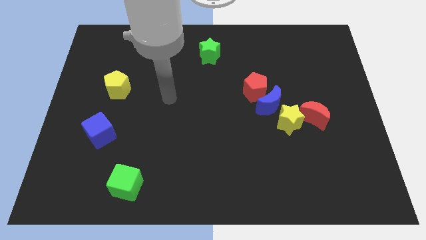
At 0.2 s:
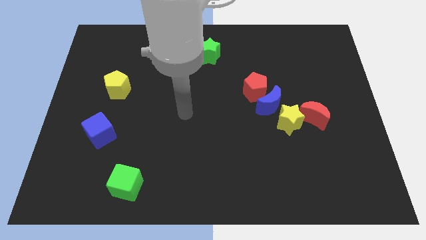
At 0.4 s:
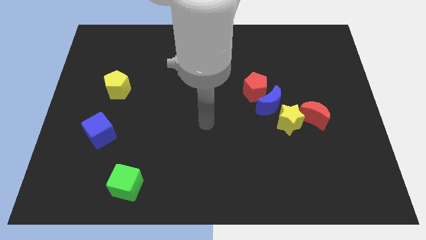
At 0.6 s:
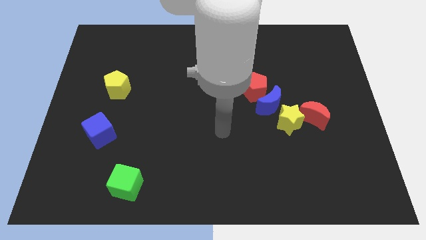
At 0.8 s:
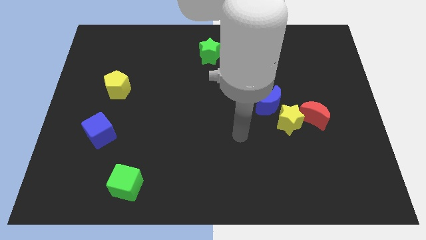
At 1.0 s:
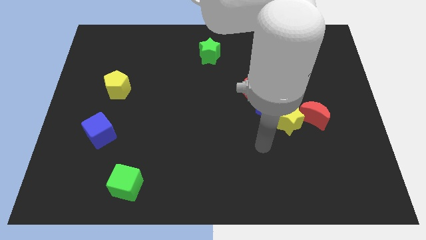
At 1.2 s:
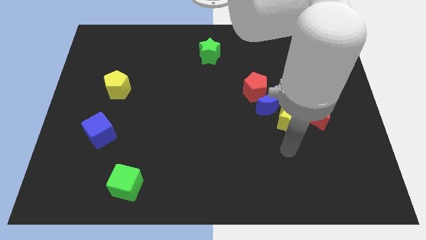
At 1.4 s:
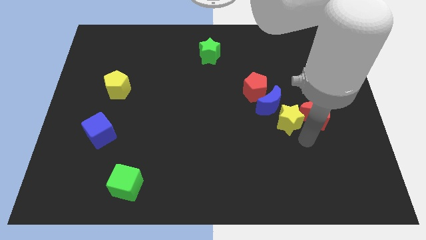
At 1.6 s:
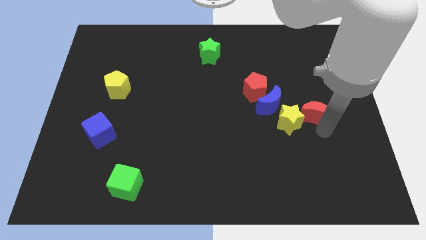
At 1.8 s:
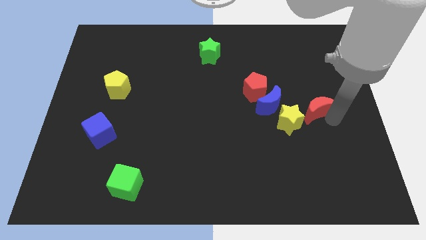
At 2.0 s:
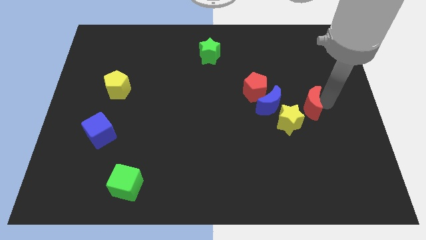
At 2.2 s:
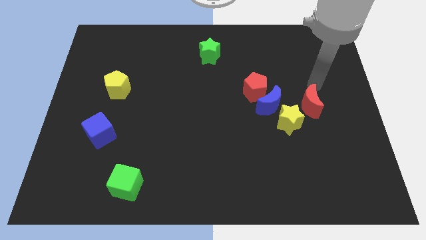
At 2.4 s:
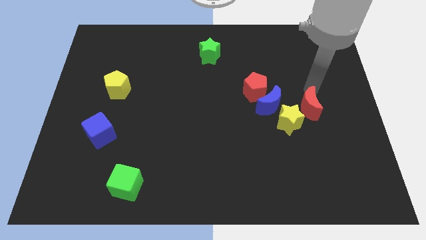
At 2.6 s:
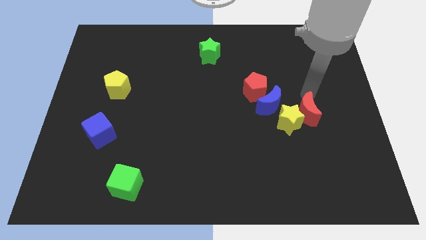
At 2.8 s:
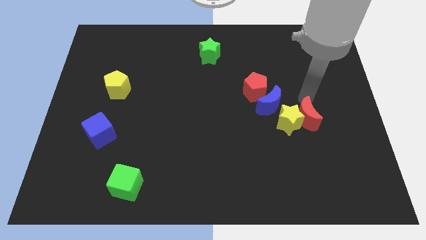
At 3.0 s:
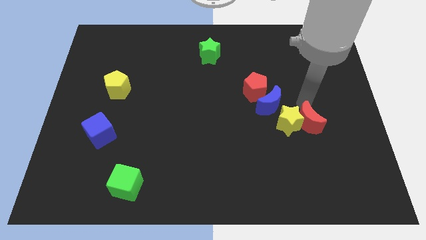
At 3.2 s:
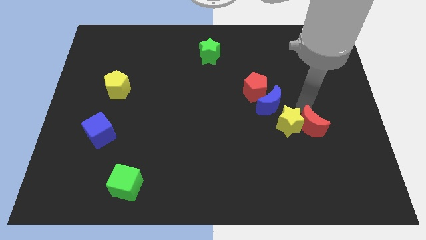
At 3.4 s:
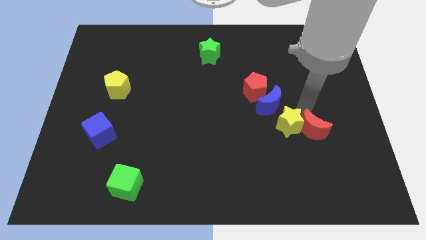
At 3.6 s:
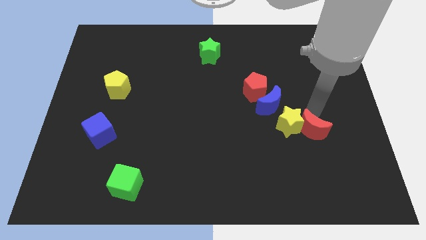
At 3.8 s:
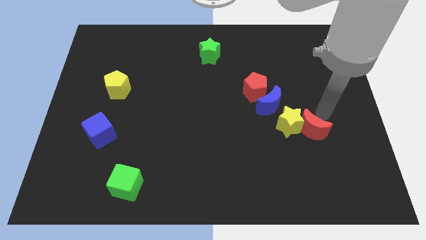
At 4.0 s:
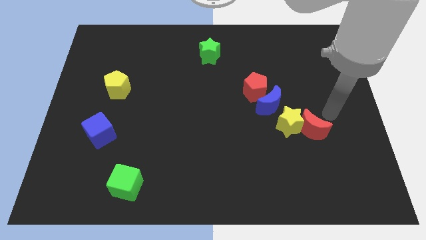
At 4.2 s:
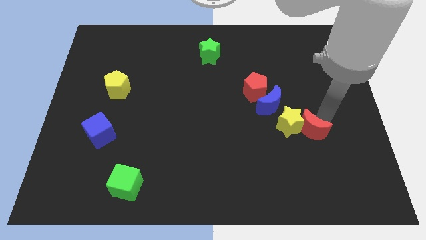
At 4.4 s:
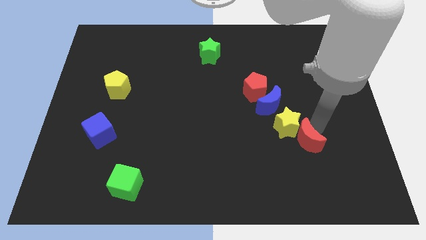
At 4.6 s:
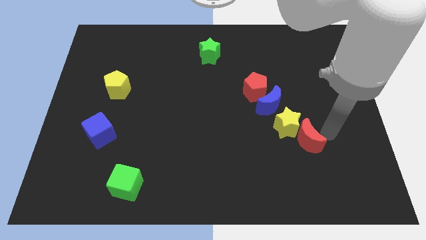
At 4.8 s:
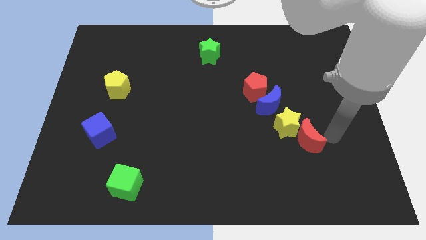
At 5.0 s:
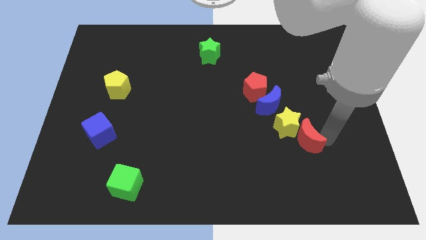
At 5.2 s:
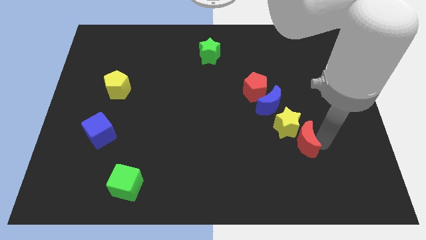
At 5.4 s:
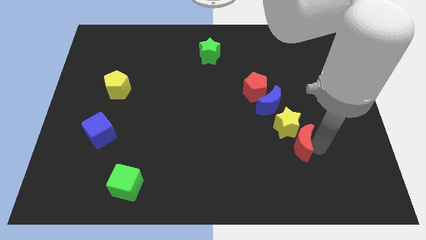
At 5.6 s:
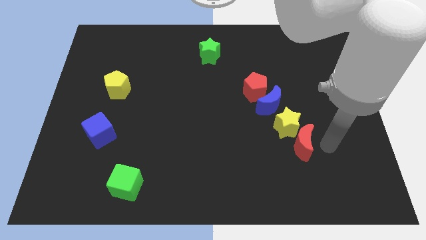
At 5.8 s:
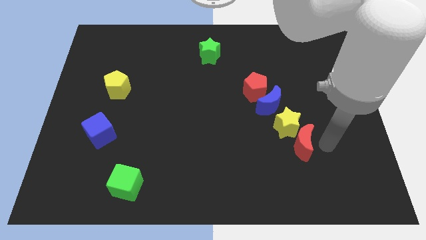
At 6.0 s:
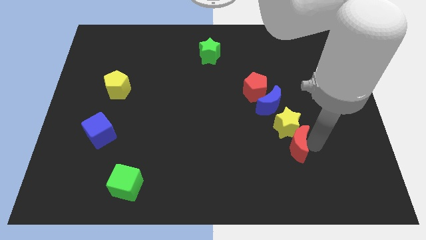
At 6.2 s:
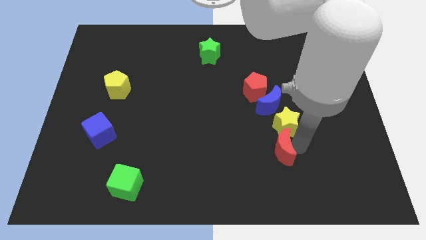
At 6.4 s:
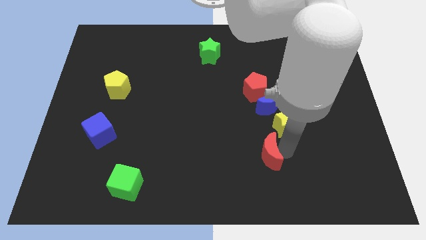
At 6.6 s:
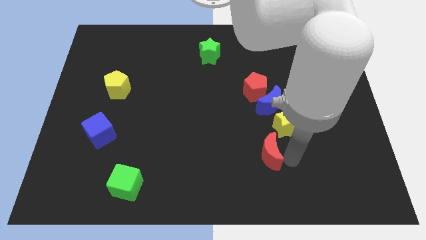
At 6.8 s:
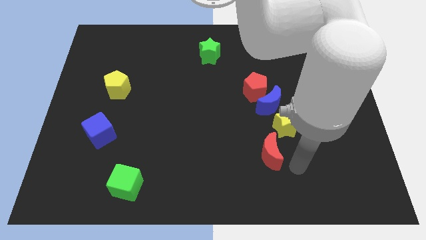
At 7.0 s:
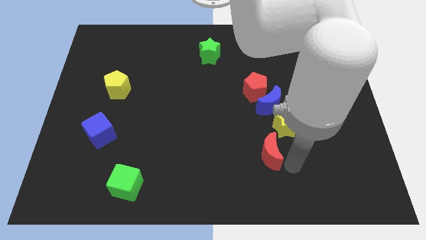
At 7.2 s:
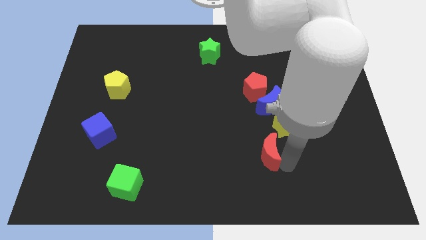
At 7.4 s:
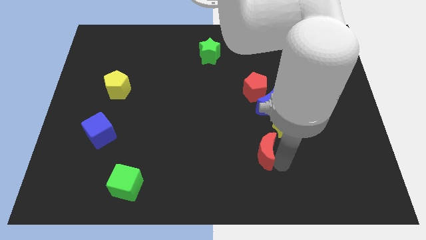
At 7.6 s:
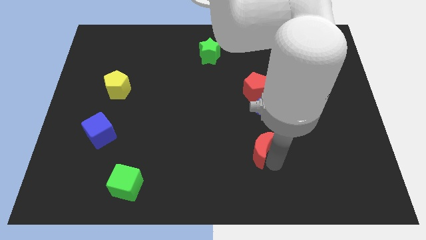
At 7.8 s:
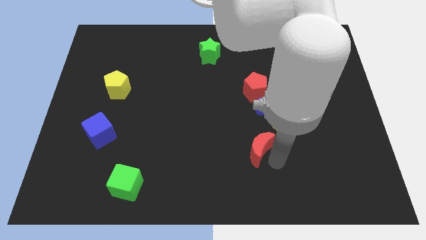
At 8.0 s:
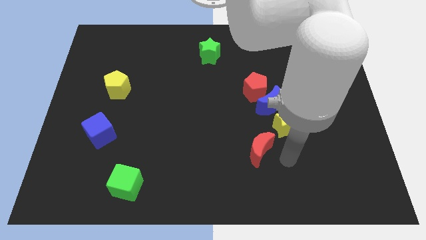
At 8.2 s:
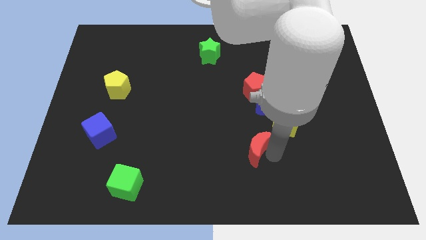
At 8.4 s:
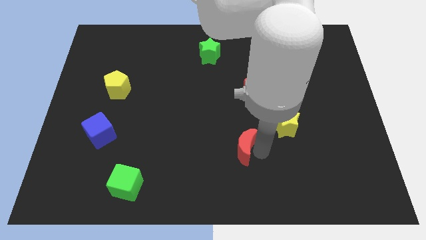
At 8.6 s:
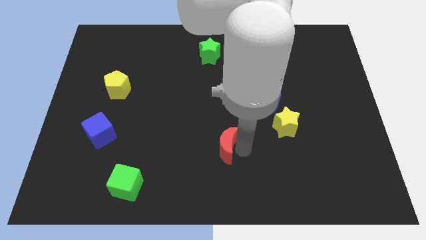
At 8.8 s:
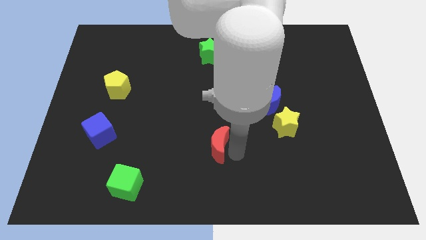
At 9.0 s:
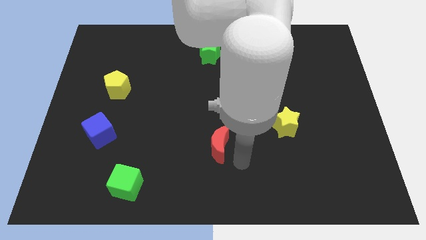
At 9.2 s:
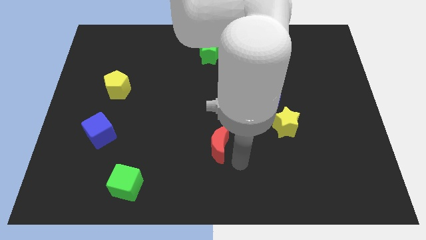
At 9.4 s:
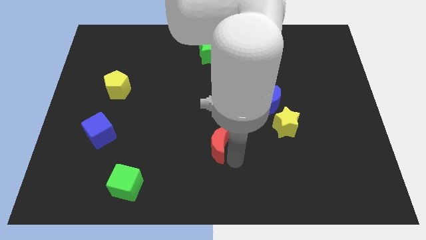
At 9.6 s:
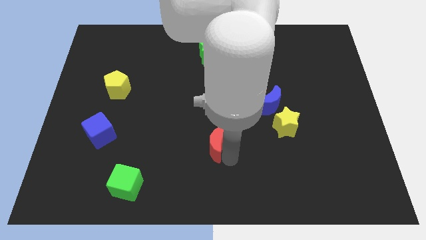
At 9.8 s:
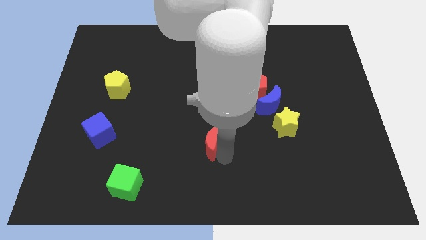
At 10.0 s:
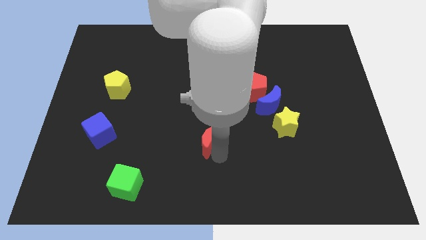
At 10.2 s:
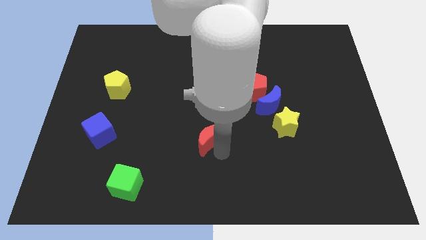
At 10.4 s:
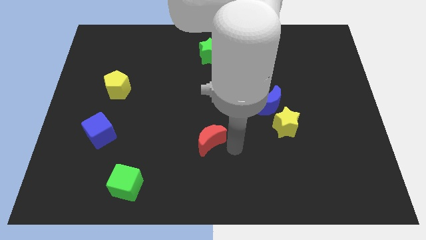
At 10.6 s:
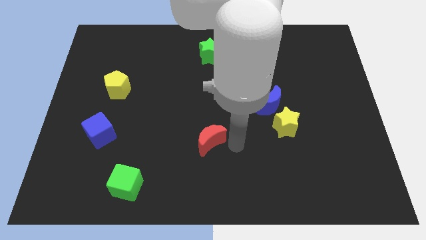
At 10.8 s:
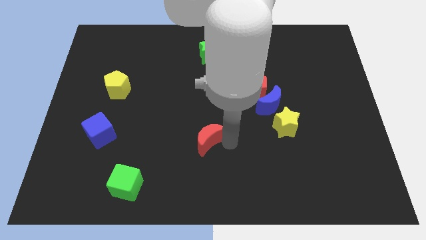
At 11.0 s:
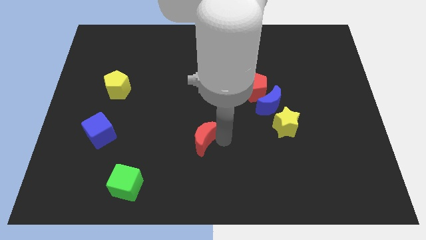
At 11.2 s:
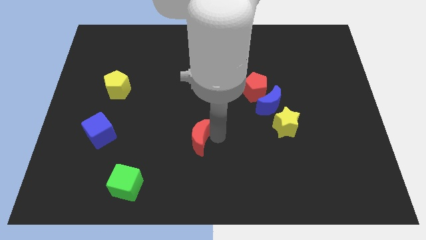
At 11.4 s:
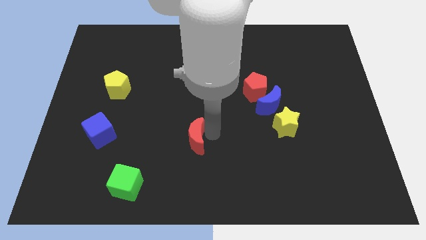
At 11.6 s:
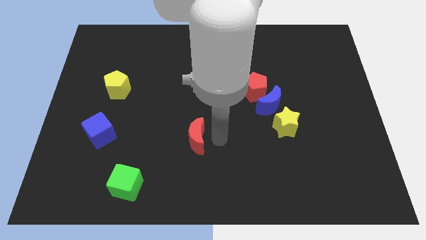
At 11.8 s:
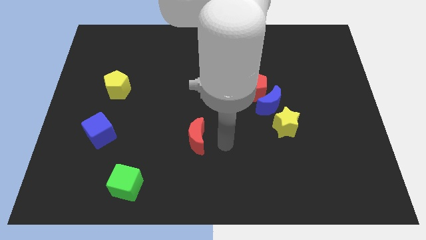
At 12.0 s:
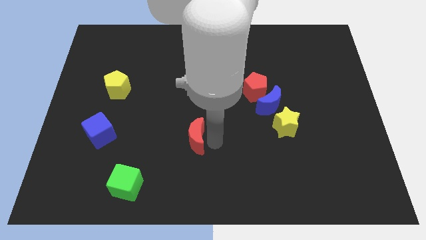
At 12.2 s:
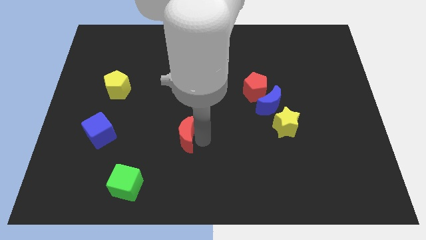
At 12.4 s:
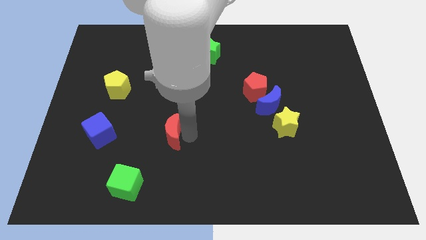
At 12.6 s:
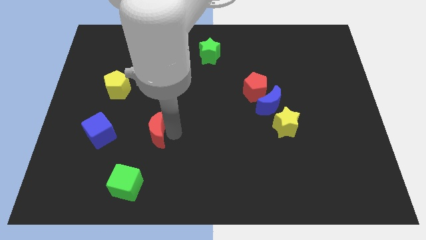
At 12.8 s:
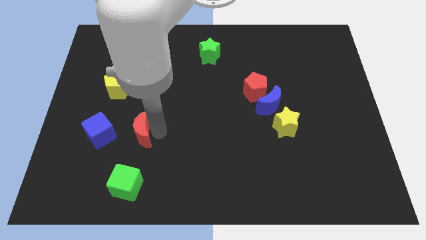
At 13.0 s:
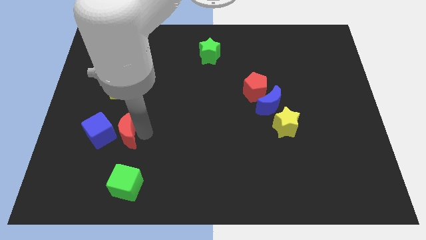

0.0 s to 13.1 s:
push the red moon to the blue cube

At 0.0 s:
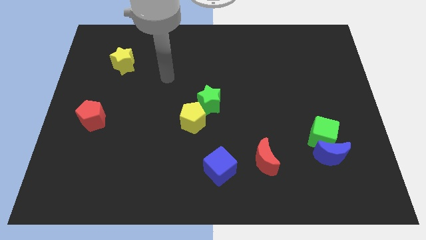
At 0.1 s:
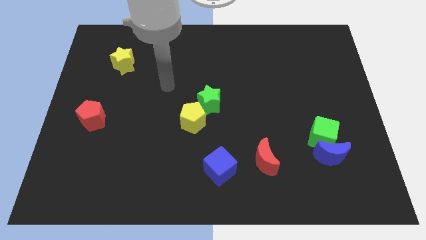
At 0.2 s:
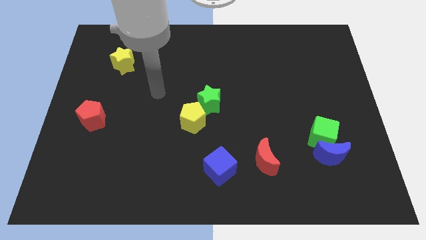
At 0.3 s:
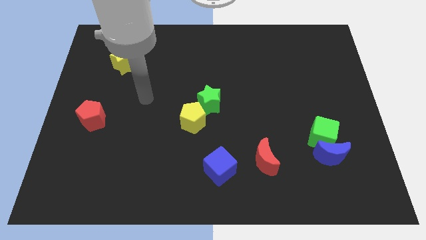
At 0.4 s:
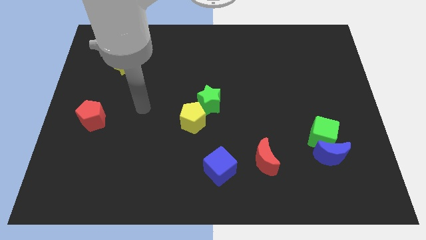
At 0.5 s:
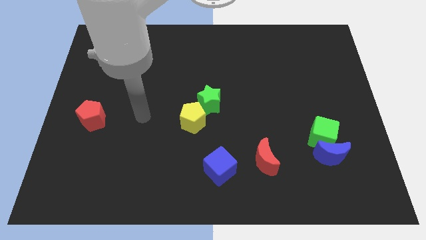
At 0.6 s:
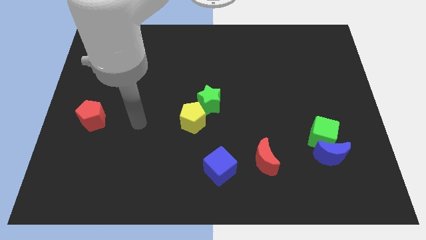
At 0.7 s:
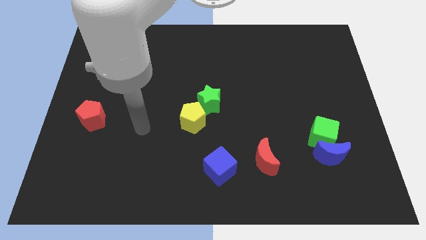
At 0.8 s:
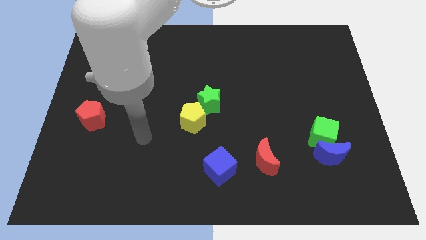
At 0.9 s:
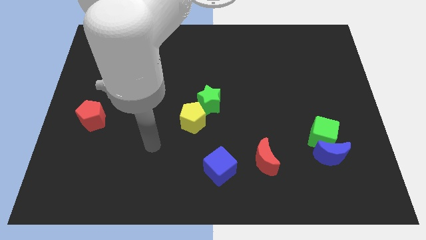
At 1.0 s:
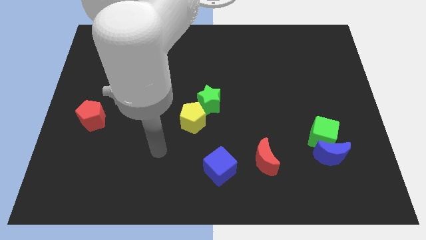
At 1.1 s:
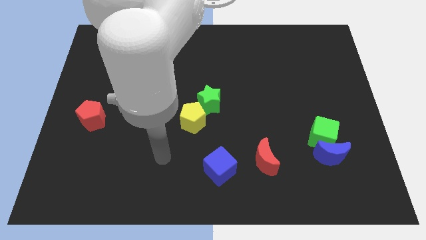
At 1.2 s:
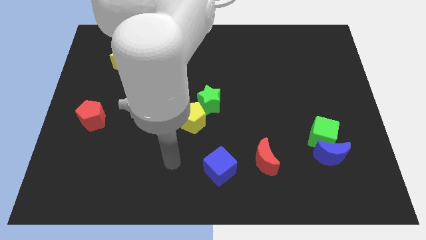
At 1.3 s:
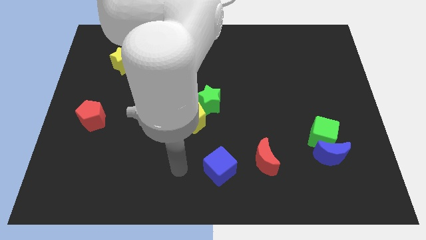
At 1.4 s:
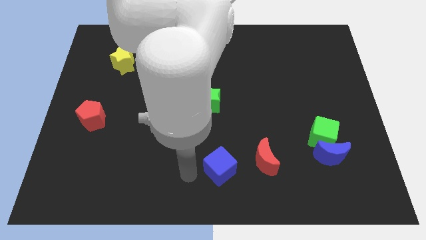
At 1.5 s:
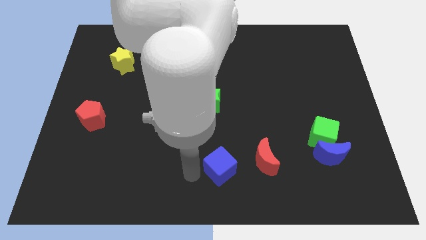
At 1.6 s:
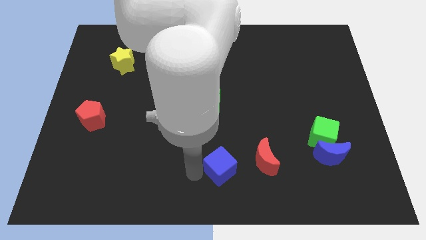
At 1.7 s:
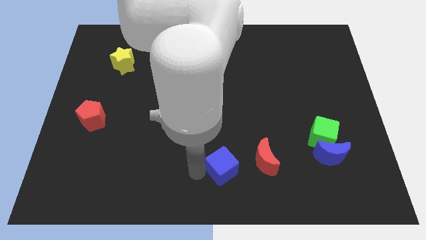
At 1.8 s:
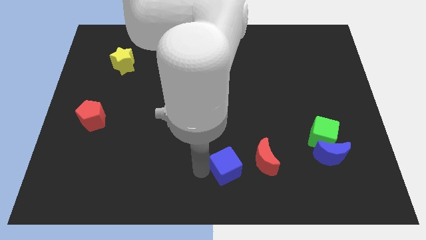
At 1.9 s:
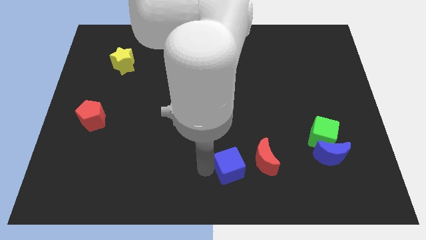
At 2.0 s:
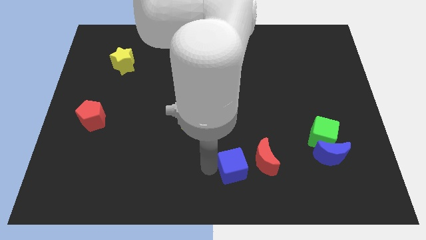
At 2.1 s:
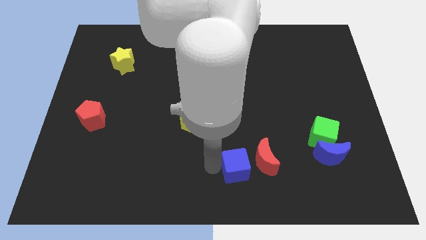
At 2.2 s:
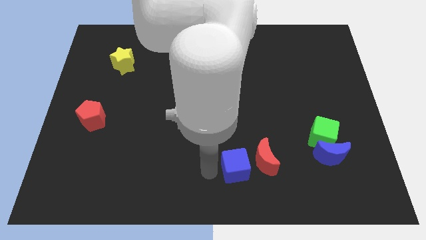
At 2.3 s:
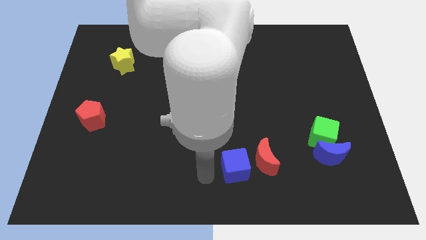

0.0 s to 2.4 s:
put the blue cube next to the red moon
